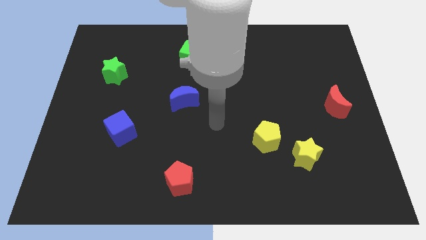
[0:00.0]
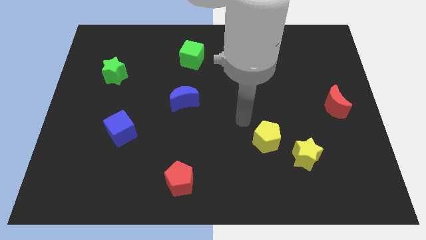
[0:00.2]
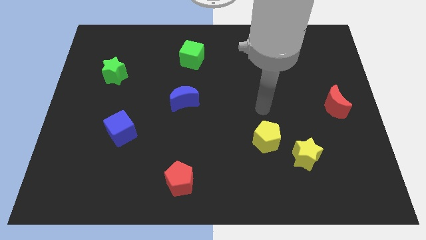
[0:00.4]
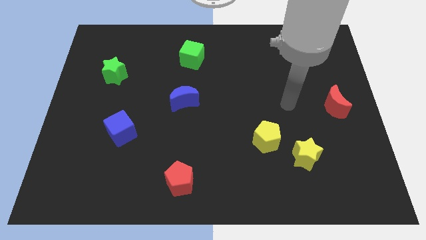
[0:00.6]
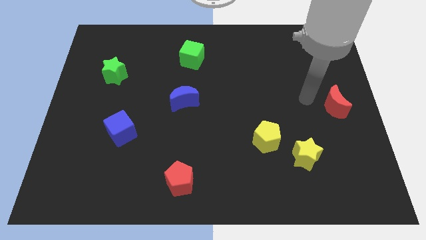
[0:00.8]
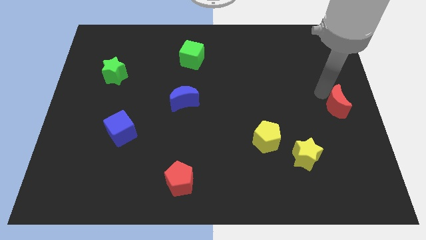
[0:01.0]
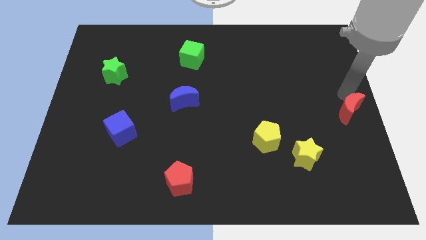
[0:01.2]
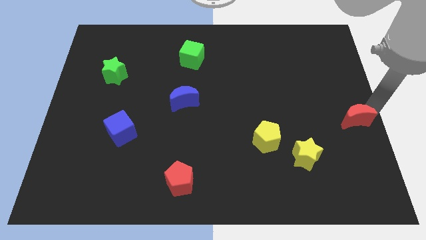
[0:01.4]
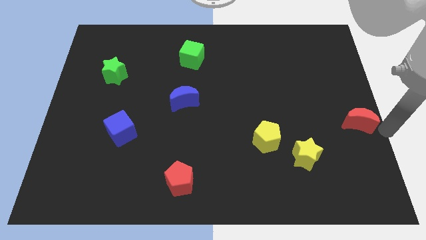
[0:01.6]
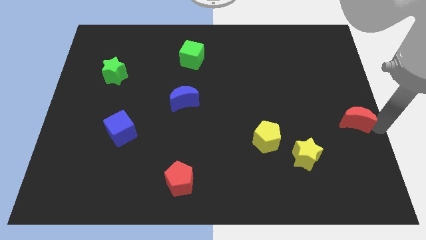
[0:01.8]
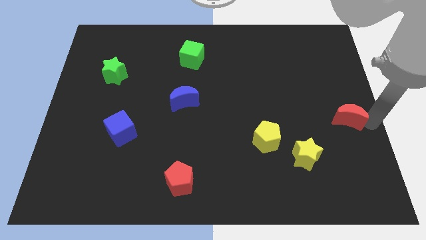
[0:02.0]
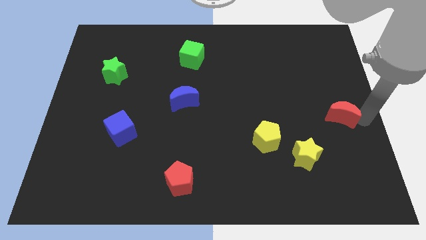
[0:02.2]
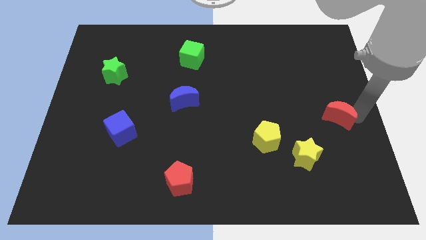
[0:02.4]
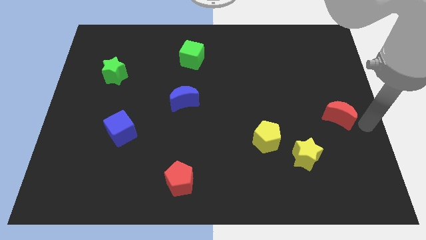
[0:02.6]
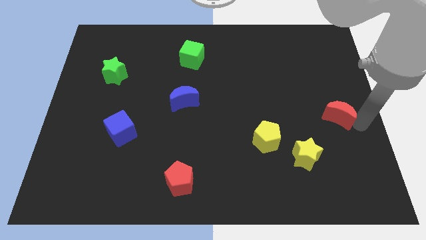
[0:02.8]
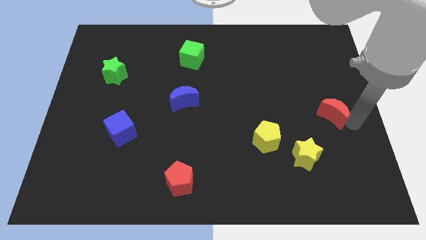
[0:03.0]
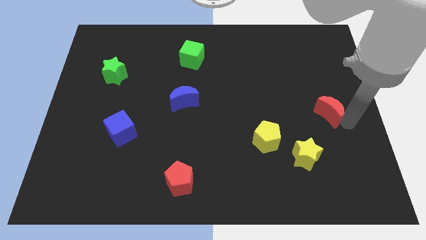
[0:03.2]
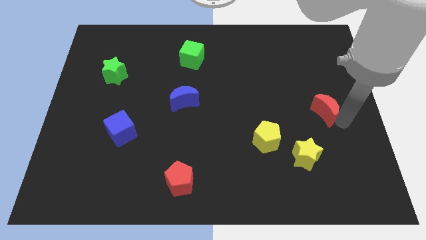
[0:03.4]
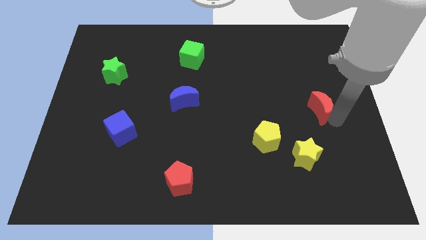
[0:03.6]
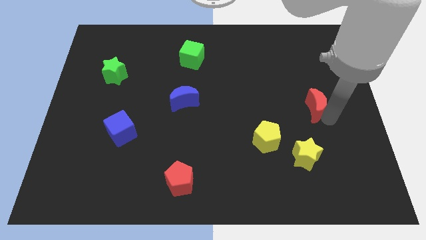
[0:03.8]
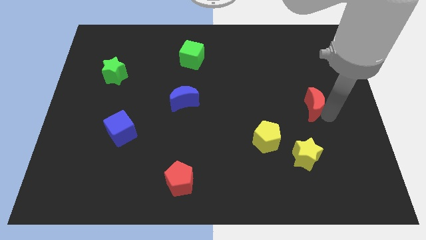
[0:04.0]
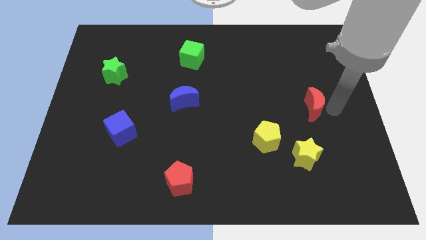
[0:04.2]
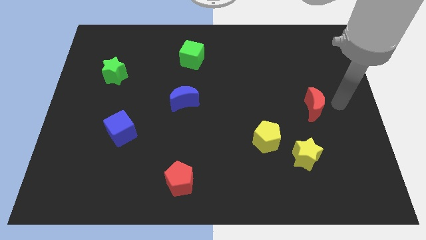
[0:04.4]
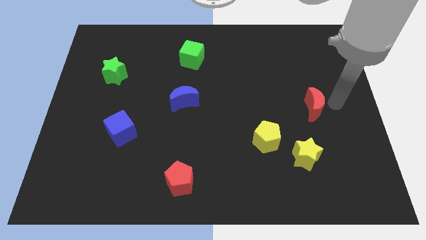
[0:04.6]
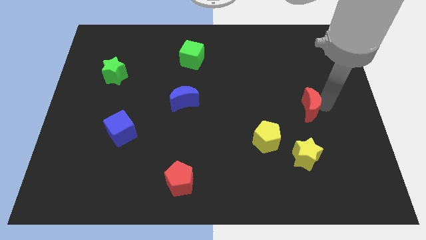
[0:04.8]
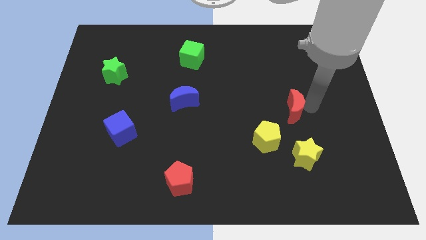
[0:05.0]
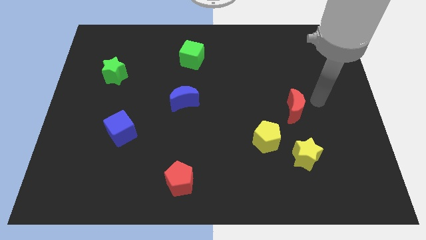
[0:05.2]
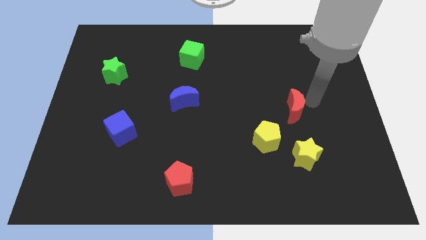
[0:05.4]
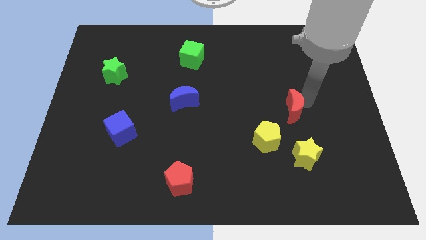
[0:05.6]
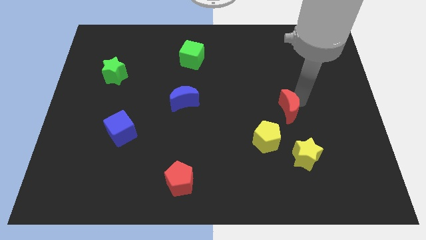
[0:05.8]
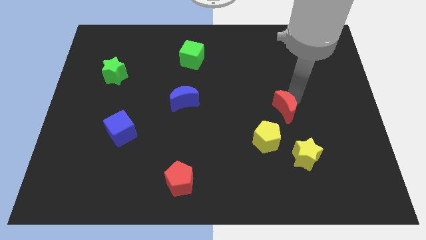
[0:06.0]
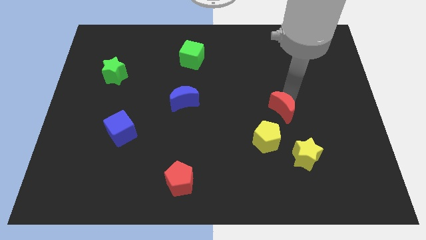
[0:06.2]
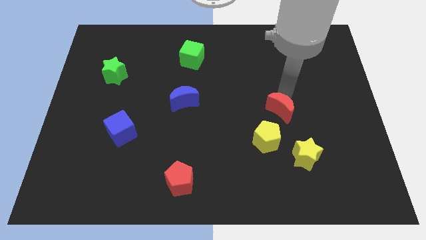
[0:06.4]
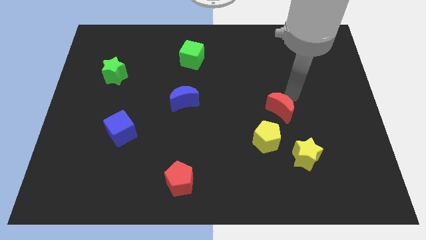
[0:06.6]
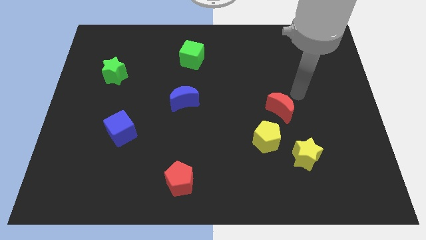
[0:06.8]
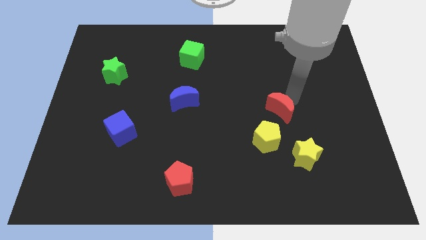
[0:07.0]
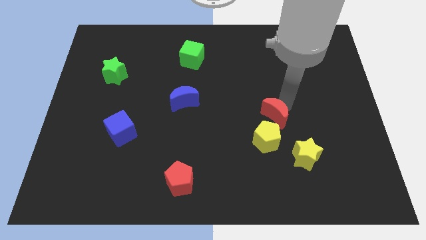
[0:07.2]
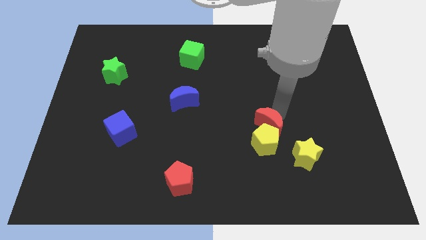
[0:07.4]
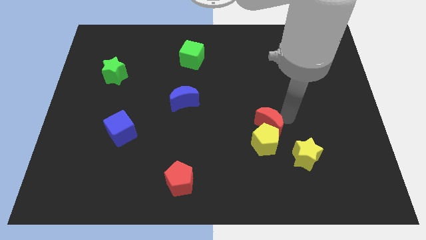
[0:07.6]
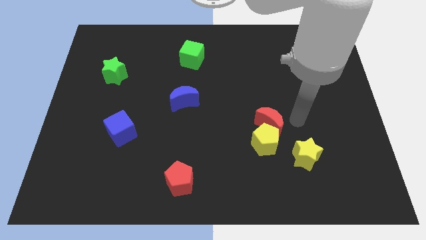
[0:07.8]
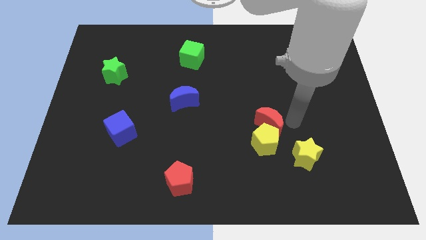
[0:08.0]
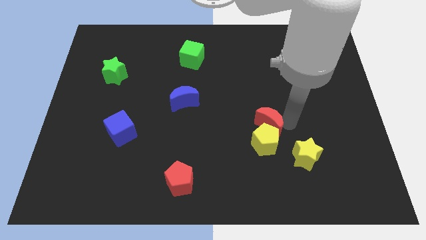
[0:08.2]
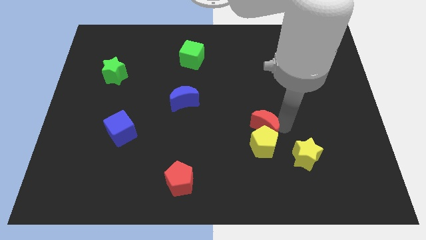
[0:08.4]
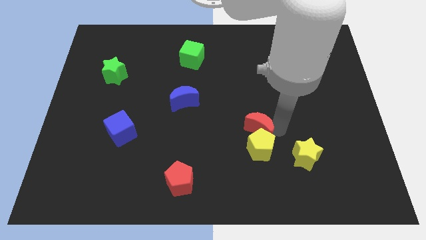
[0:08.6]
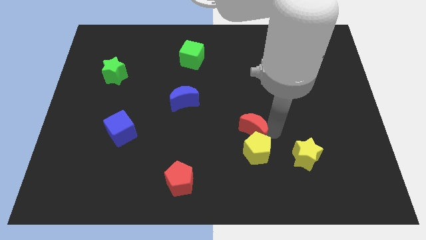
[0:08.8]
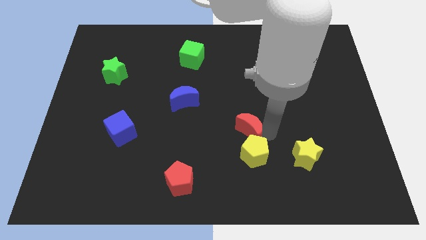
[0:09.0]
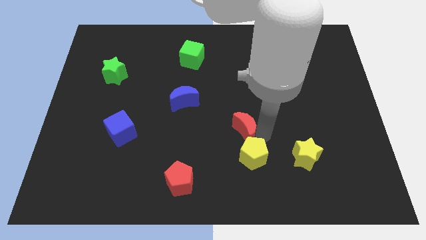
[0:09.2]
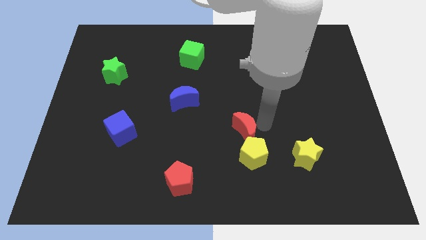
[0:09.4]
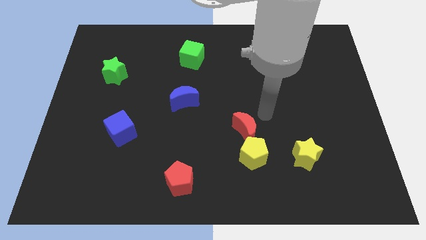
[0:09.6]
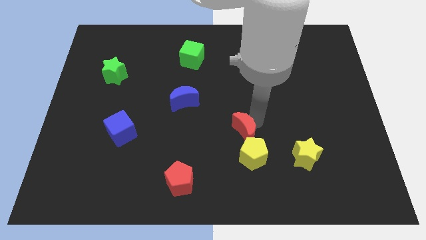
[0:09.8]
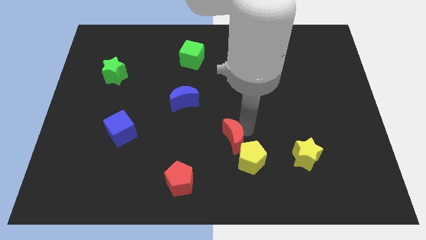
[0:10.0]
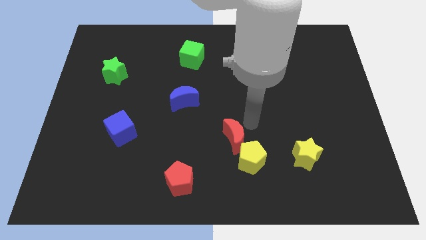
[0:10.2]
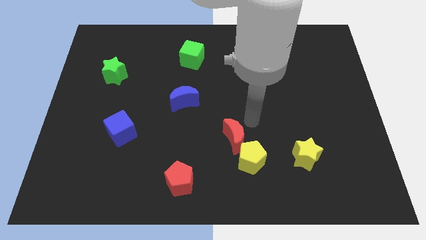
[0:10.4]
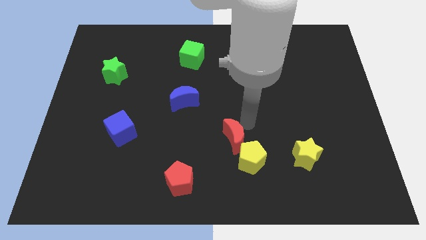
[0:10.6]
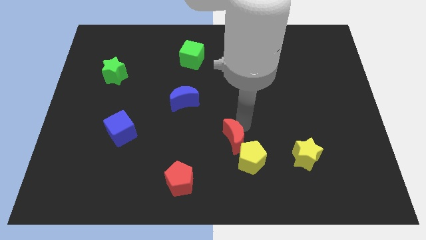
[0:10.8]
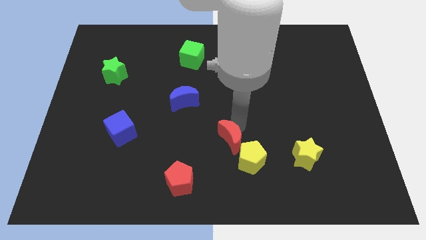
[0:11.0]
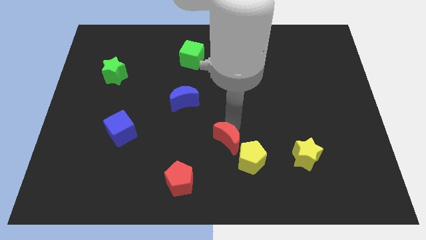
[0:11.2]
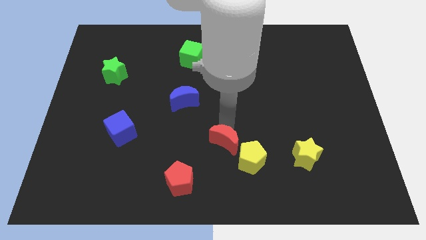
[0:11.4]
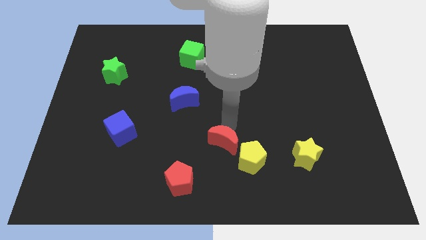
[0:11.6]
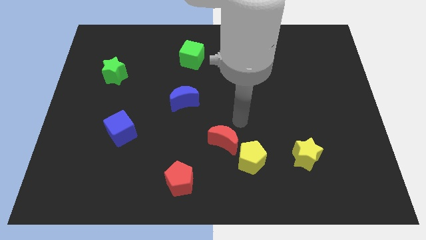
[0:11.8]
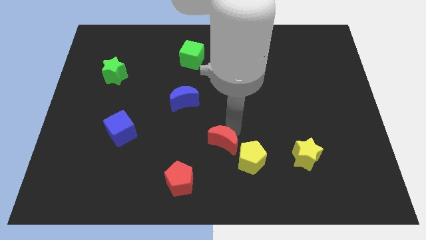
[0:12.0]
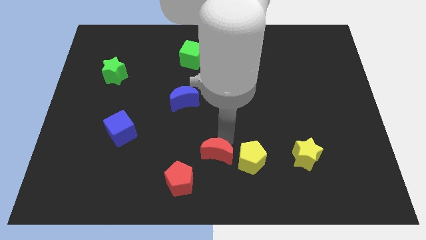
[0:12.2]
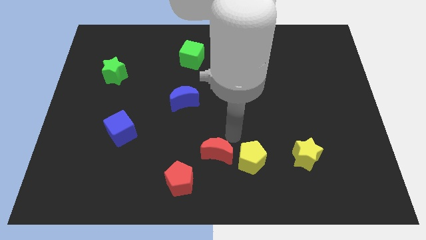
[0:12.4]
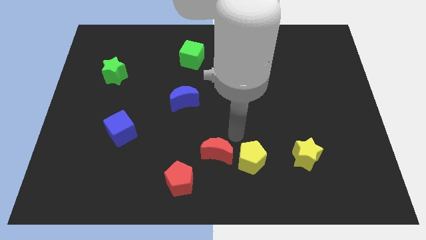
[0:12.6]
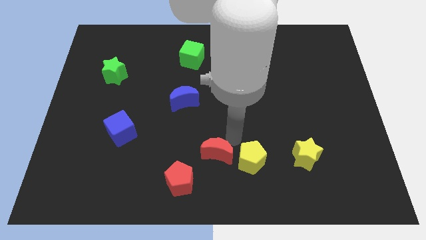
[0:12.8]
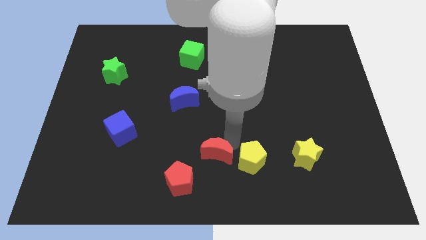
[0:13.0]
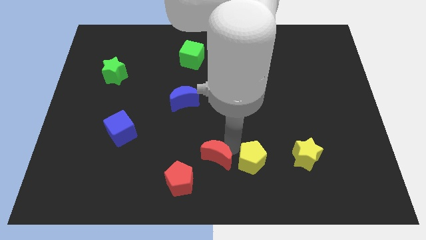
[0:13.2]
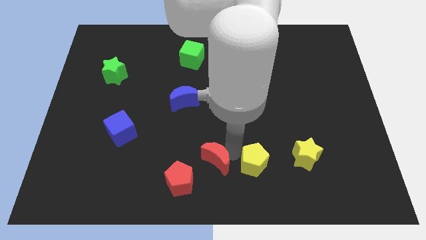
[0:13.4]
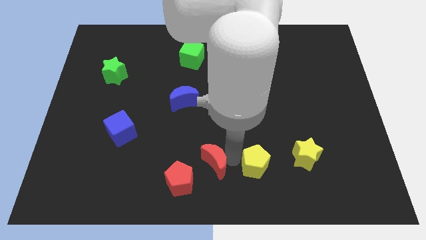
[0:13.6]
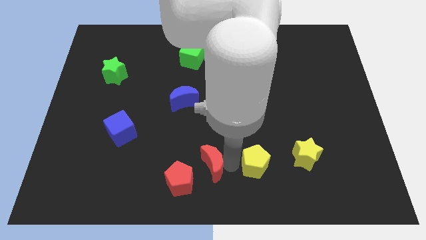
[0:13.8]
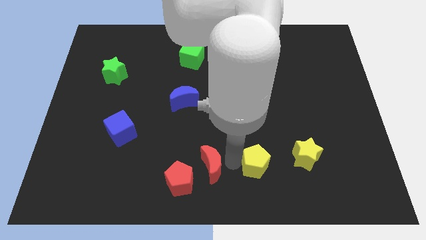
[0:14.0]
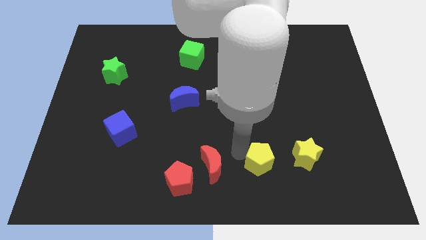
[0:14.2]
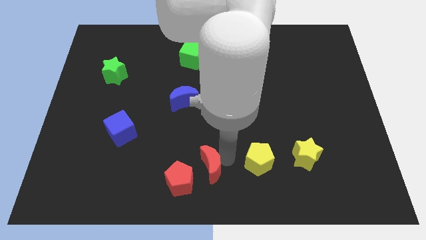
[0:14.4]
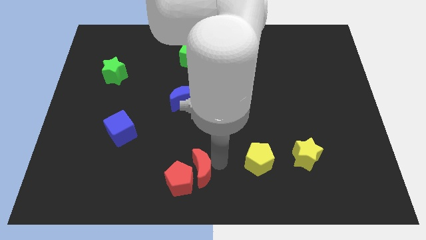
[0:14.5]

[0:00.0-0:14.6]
move the red moon next to the red pentagon
